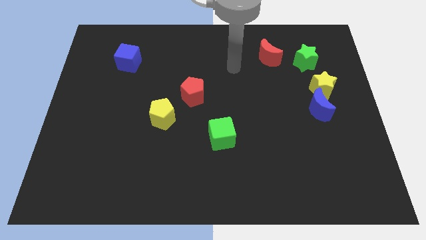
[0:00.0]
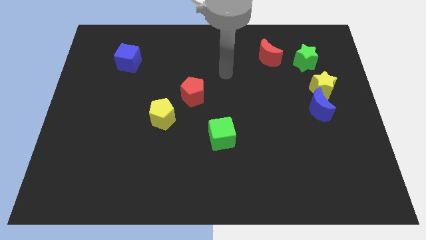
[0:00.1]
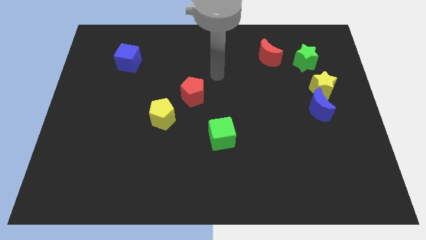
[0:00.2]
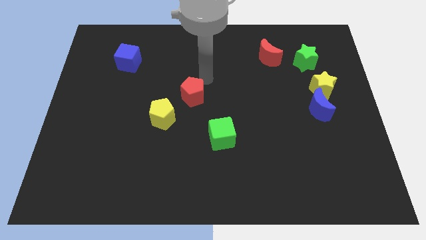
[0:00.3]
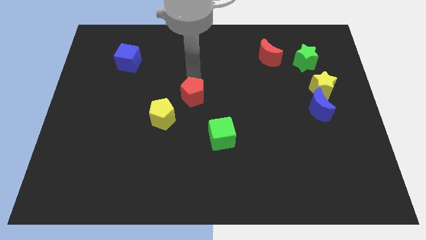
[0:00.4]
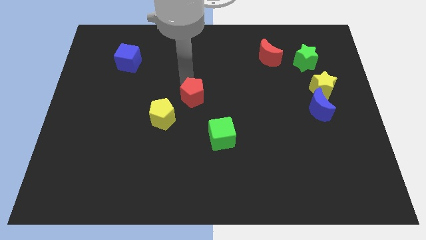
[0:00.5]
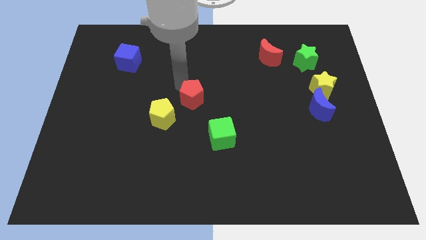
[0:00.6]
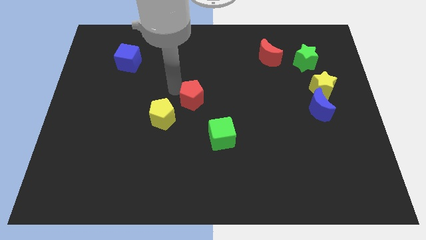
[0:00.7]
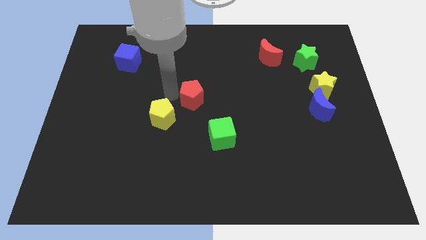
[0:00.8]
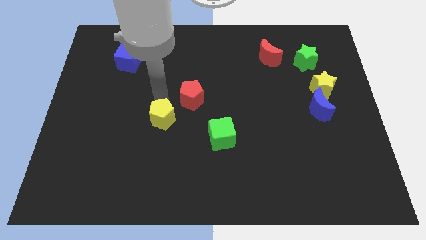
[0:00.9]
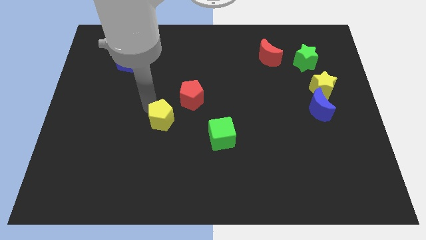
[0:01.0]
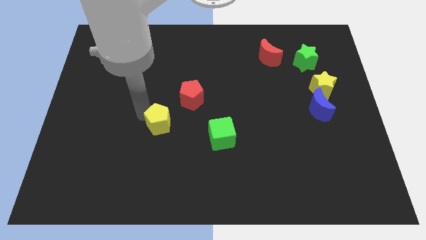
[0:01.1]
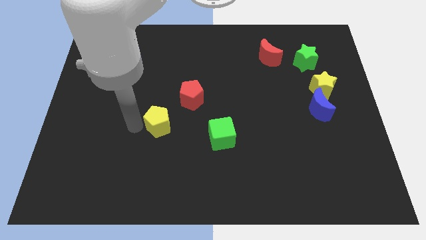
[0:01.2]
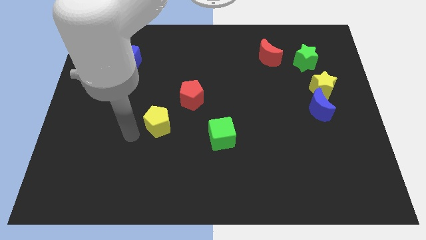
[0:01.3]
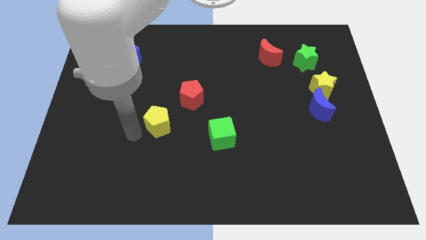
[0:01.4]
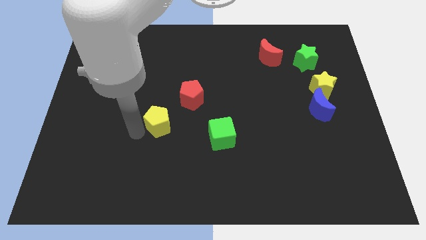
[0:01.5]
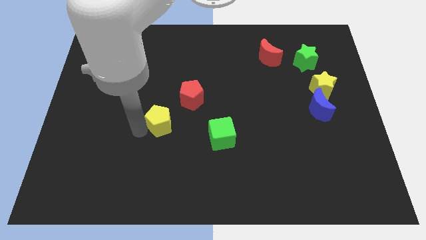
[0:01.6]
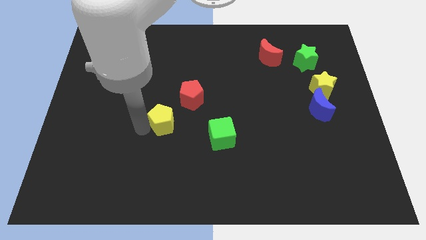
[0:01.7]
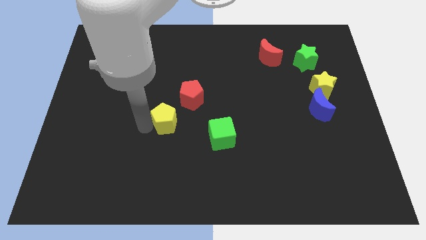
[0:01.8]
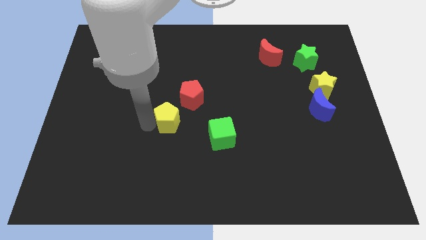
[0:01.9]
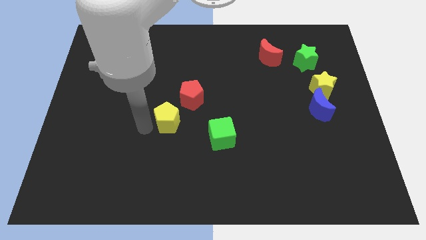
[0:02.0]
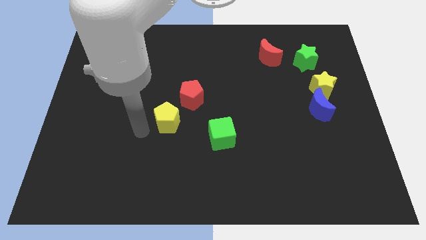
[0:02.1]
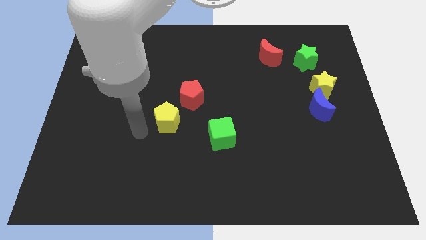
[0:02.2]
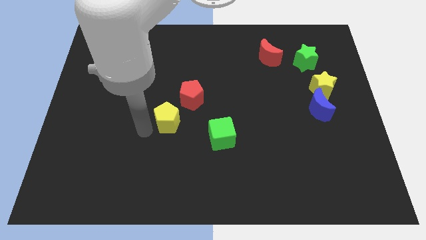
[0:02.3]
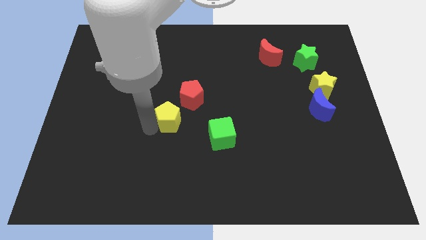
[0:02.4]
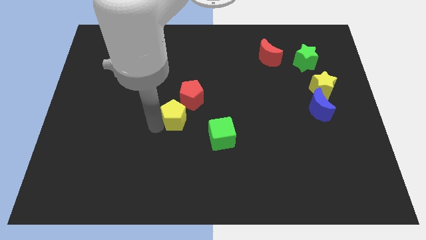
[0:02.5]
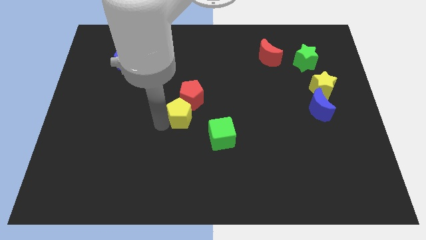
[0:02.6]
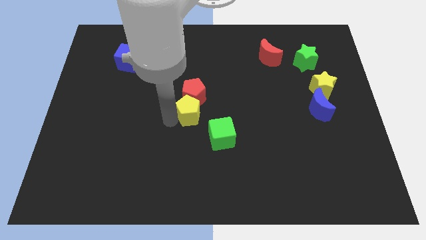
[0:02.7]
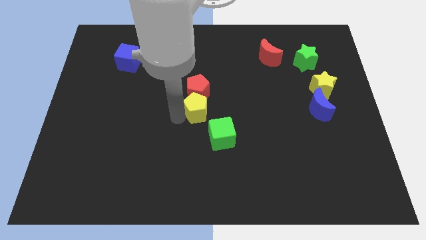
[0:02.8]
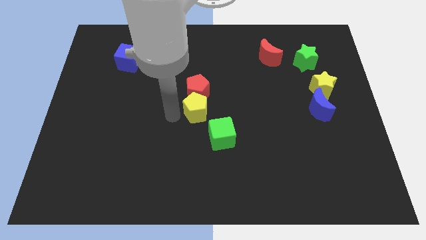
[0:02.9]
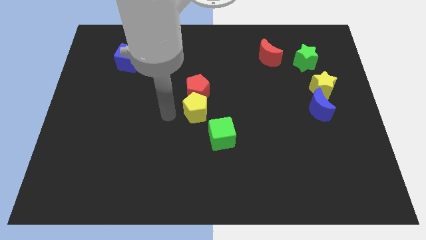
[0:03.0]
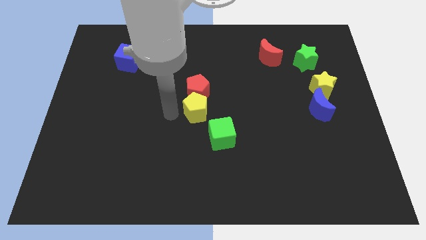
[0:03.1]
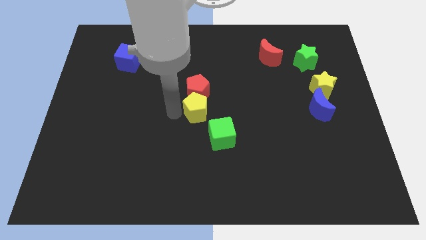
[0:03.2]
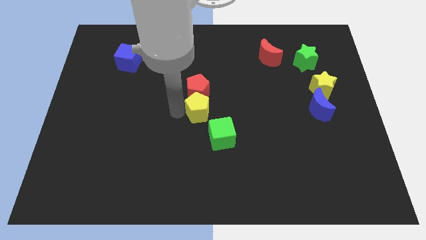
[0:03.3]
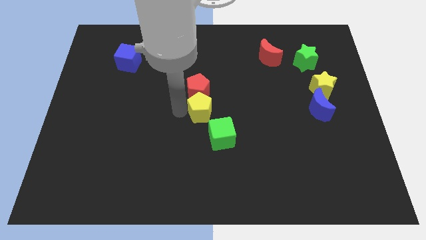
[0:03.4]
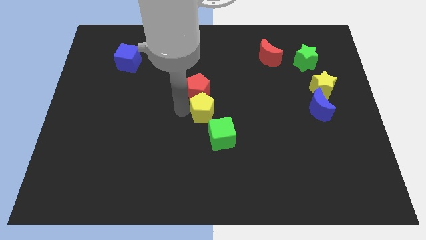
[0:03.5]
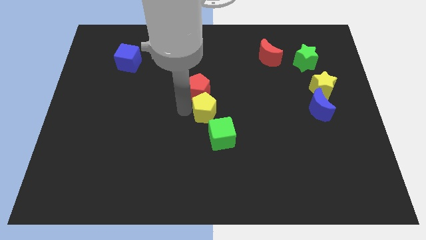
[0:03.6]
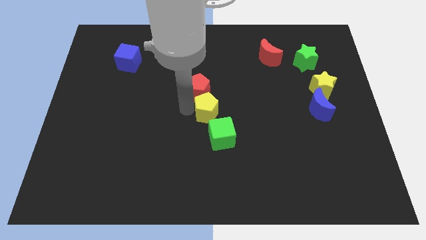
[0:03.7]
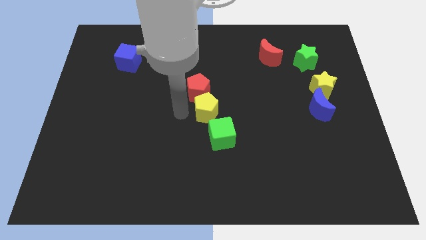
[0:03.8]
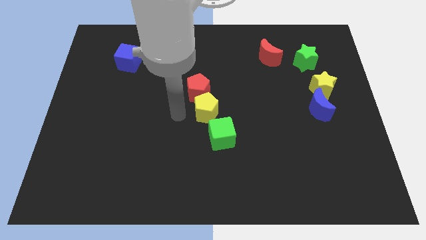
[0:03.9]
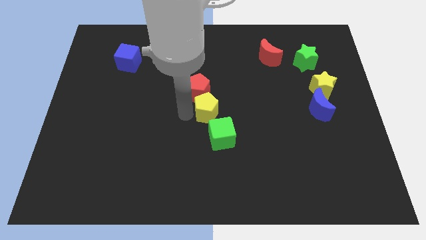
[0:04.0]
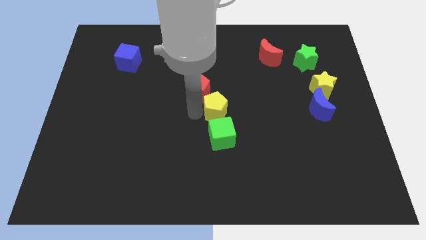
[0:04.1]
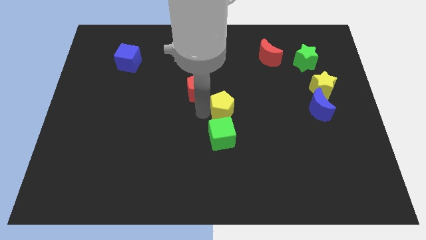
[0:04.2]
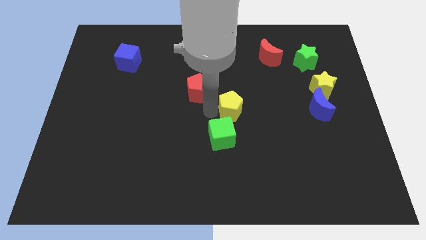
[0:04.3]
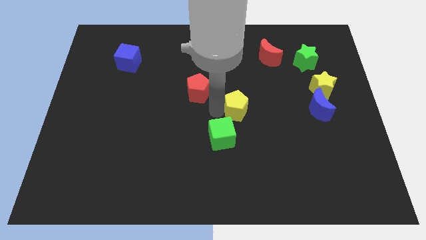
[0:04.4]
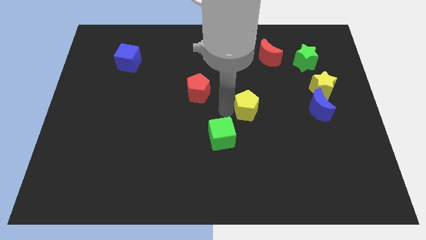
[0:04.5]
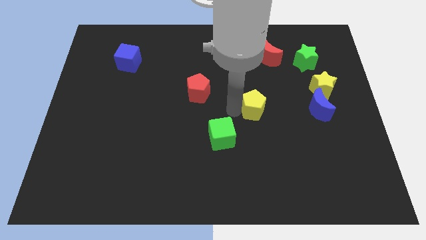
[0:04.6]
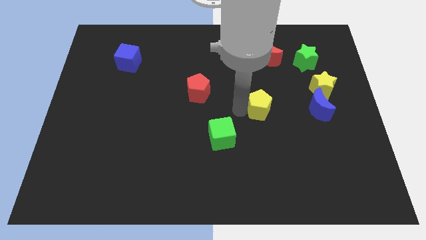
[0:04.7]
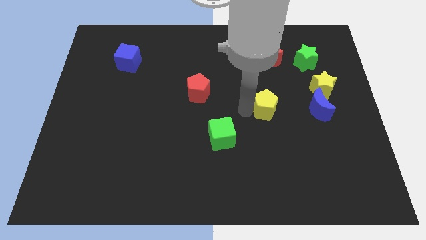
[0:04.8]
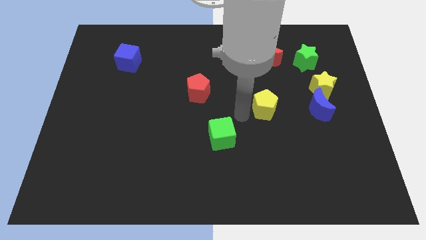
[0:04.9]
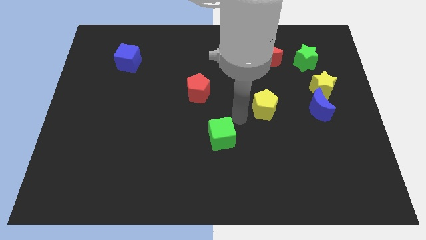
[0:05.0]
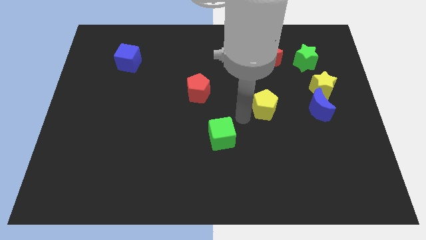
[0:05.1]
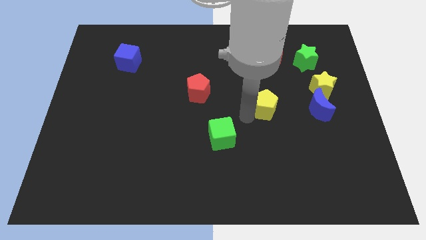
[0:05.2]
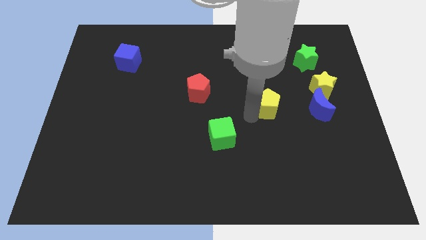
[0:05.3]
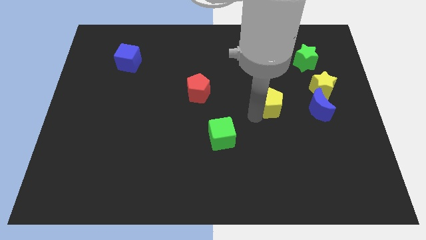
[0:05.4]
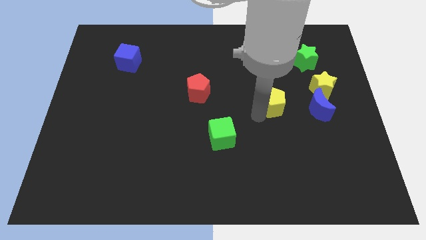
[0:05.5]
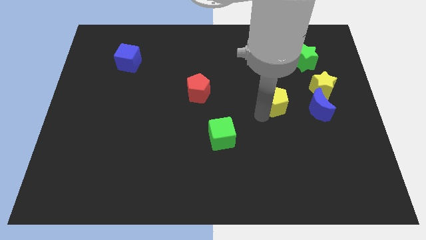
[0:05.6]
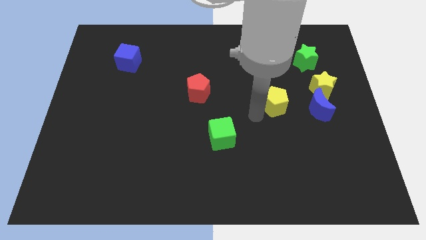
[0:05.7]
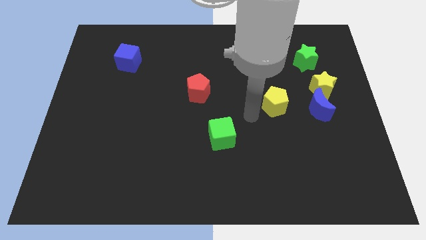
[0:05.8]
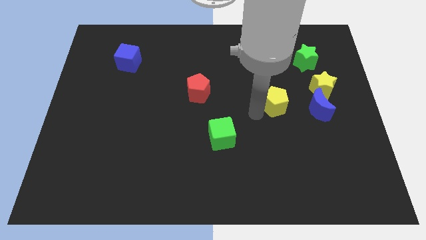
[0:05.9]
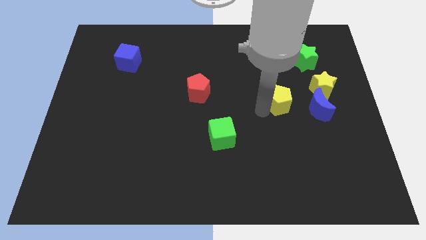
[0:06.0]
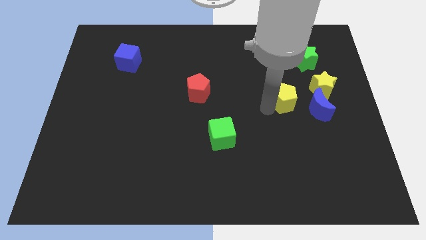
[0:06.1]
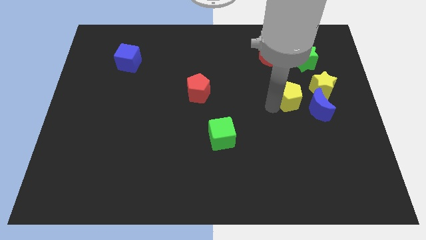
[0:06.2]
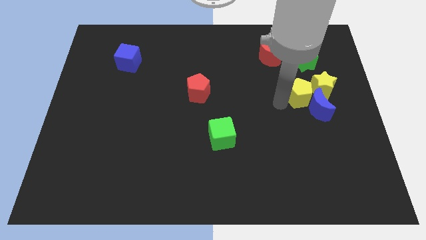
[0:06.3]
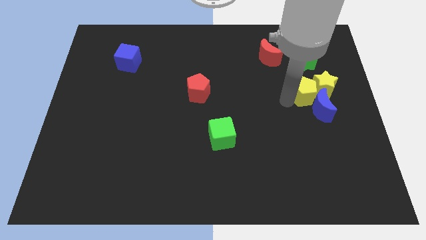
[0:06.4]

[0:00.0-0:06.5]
slide the yellow pentagon close to the yellow star

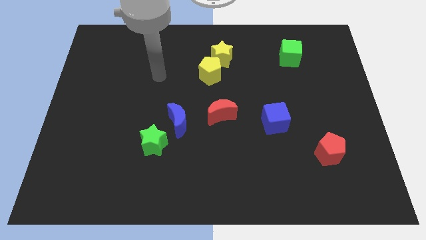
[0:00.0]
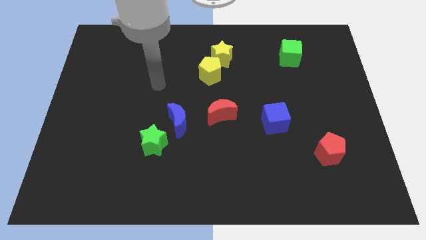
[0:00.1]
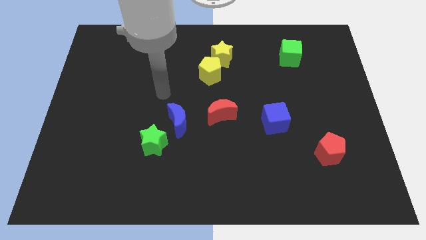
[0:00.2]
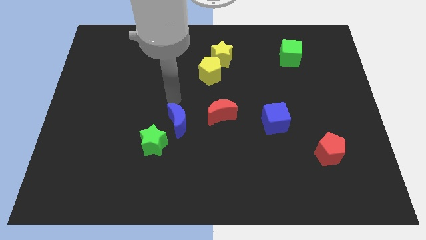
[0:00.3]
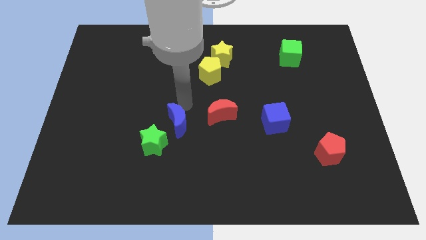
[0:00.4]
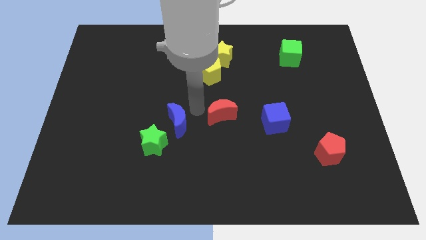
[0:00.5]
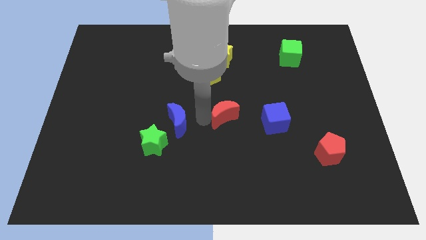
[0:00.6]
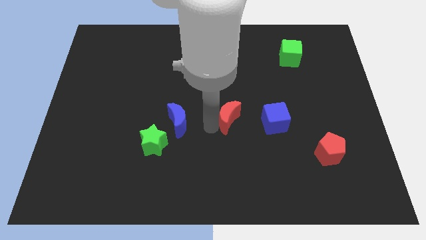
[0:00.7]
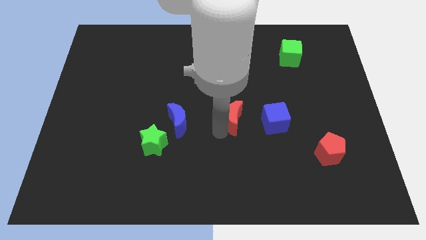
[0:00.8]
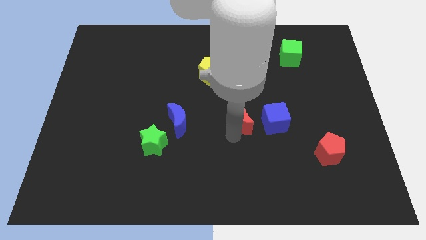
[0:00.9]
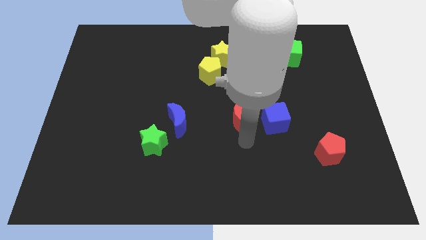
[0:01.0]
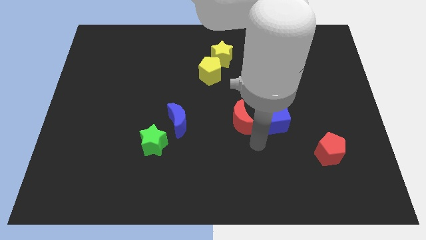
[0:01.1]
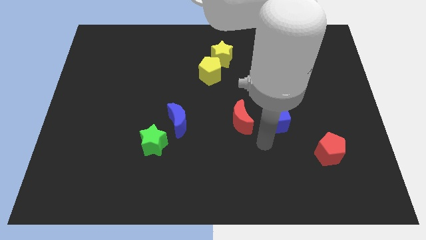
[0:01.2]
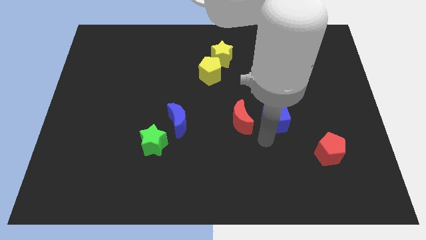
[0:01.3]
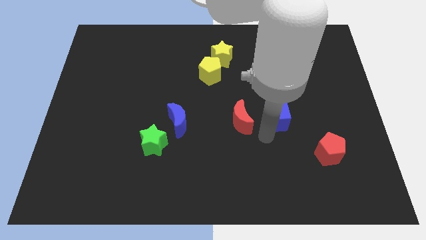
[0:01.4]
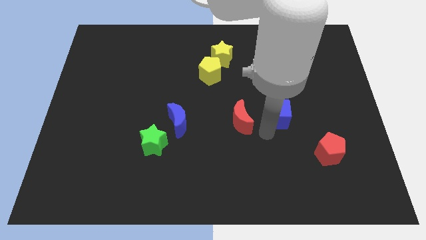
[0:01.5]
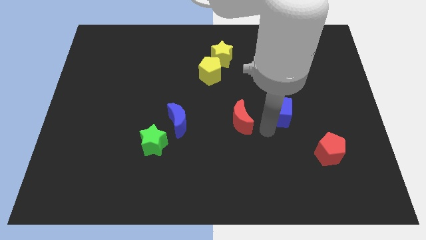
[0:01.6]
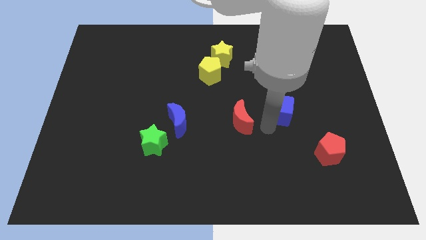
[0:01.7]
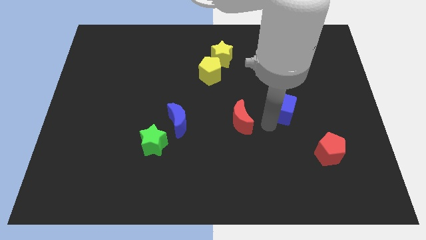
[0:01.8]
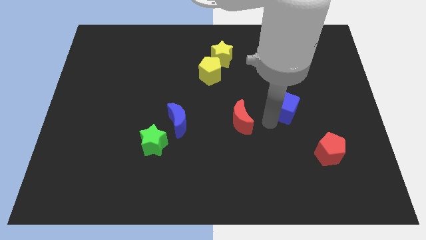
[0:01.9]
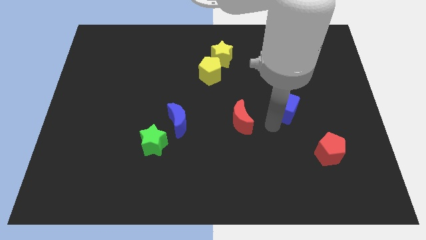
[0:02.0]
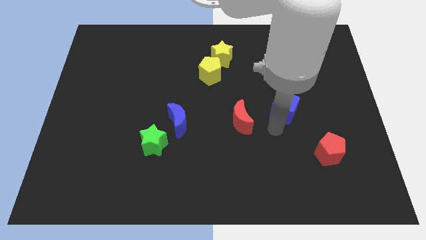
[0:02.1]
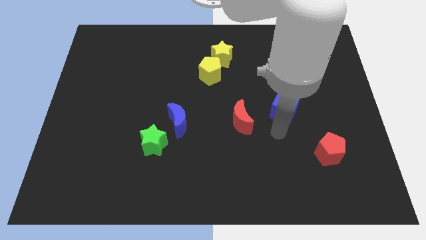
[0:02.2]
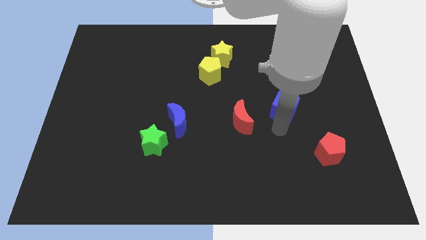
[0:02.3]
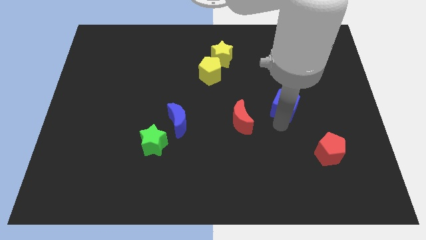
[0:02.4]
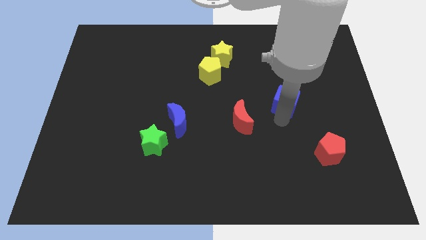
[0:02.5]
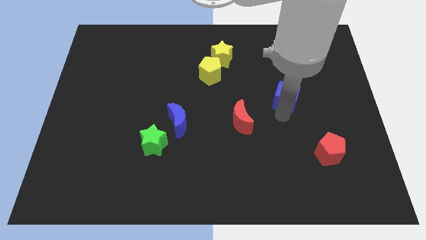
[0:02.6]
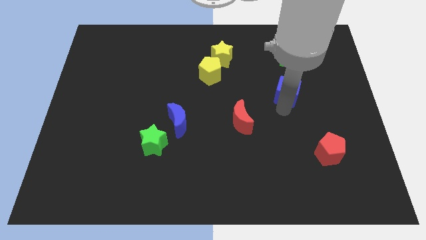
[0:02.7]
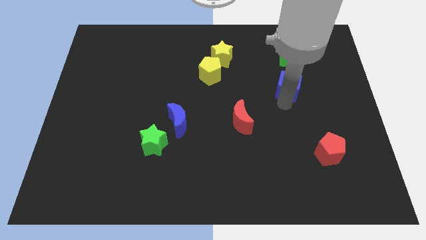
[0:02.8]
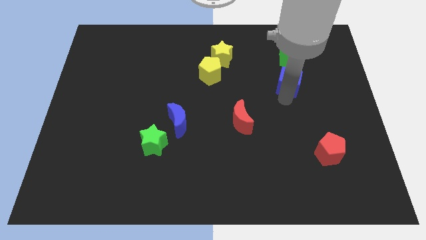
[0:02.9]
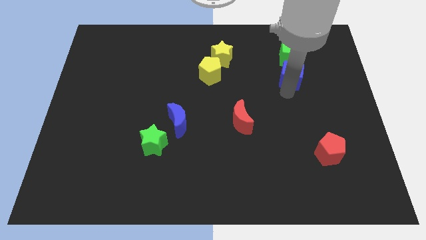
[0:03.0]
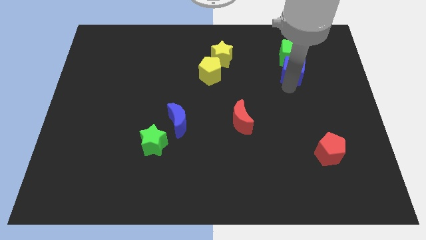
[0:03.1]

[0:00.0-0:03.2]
put the blue cube next to the green cube
